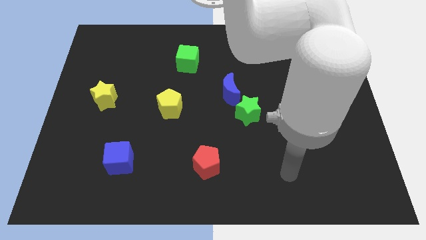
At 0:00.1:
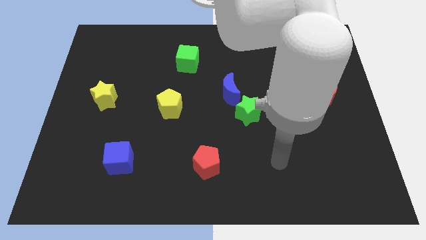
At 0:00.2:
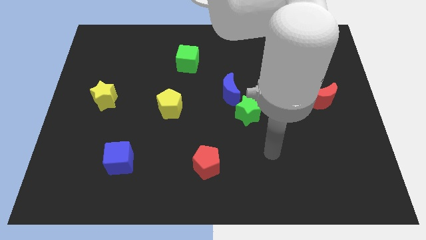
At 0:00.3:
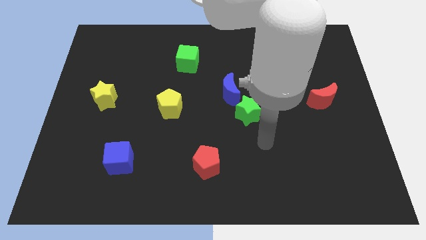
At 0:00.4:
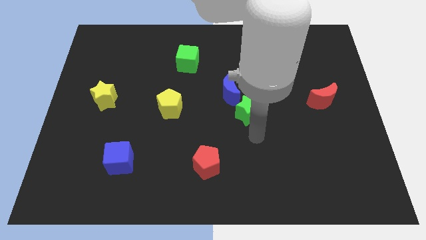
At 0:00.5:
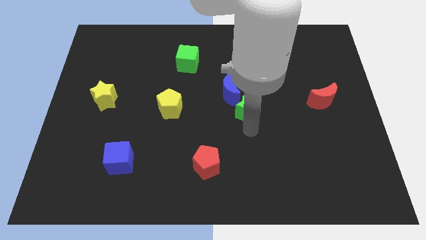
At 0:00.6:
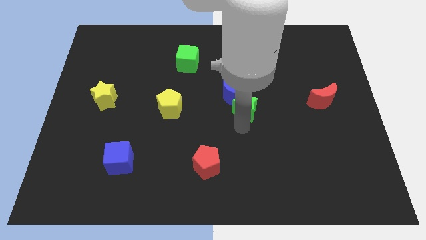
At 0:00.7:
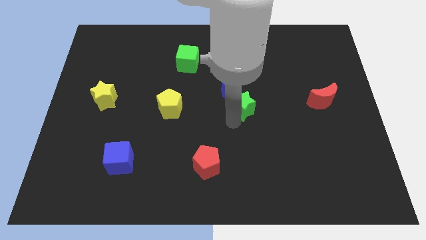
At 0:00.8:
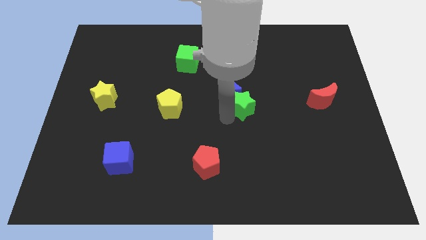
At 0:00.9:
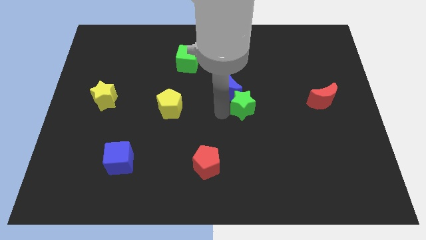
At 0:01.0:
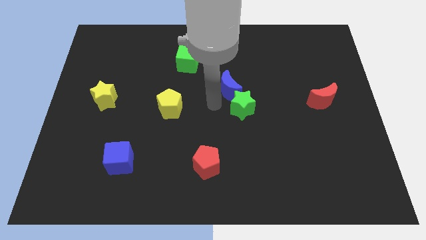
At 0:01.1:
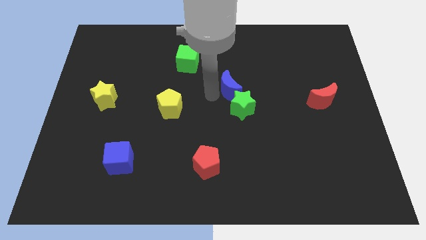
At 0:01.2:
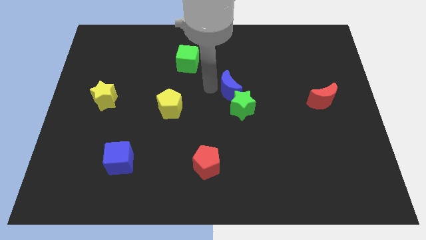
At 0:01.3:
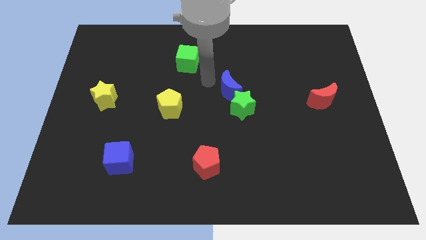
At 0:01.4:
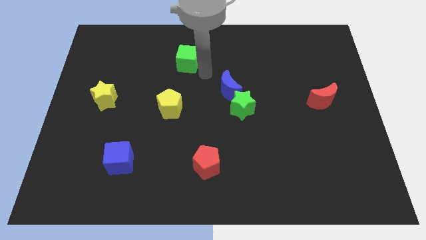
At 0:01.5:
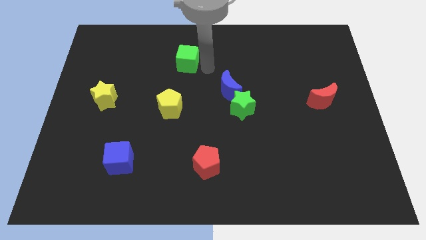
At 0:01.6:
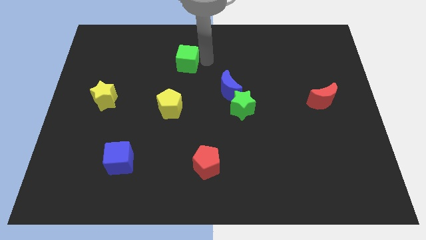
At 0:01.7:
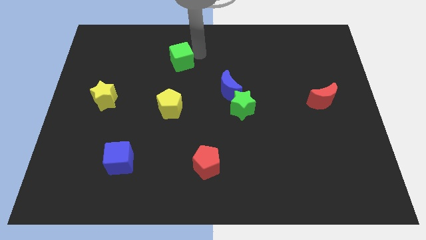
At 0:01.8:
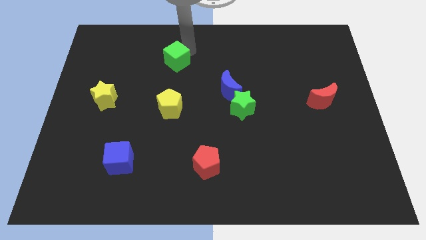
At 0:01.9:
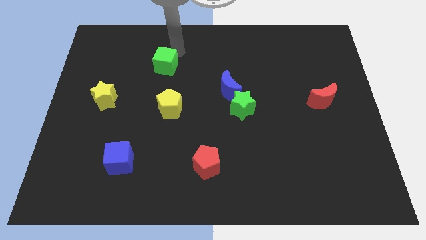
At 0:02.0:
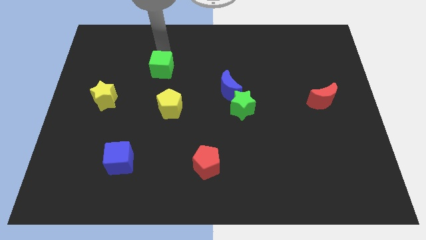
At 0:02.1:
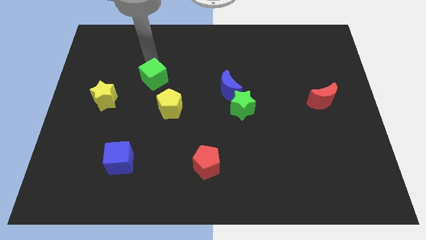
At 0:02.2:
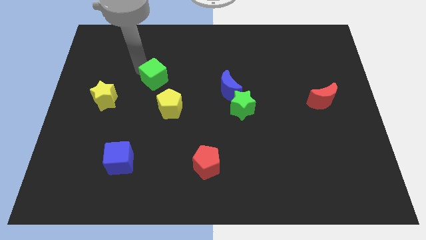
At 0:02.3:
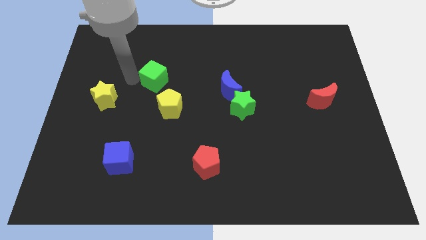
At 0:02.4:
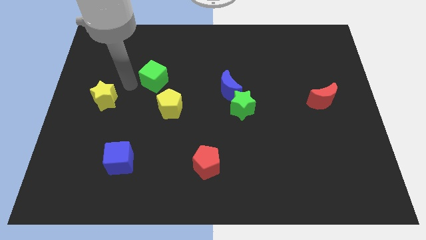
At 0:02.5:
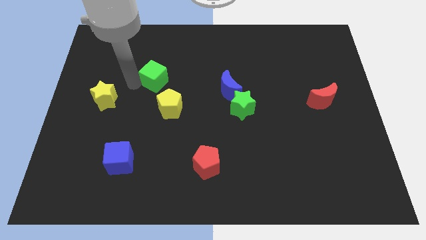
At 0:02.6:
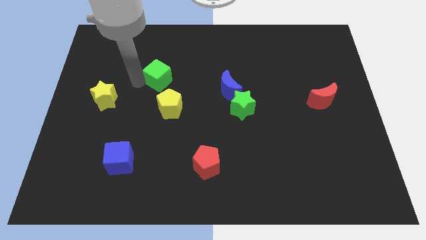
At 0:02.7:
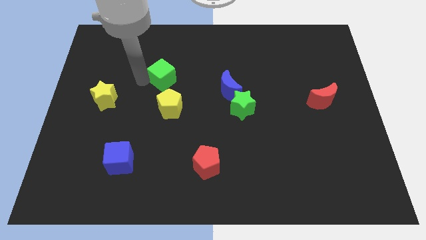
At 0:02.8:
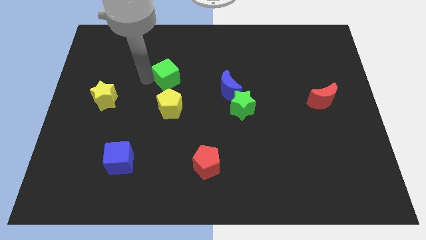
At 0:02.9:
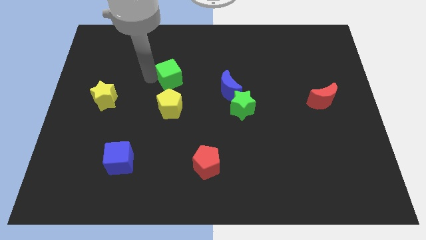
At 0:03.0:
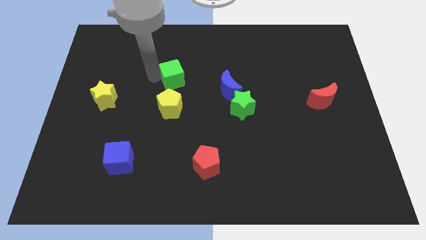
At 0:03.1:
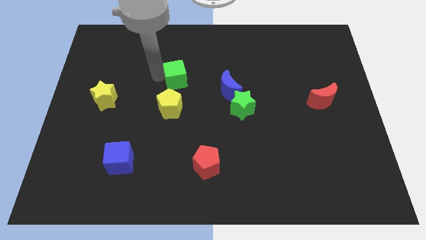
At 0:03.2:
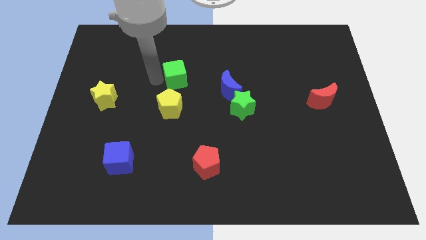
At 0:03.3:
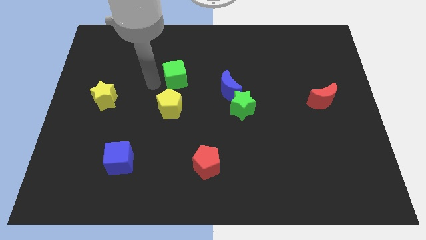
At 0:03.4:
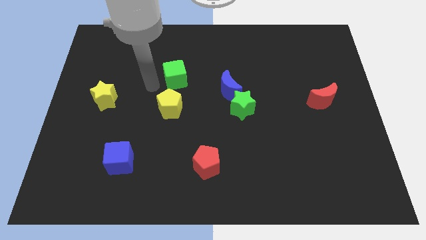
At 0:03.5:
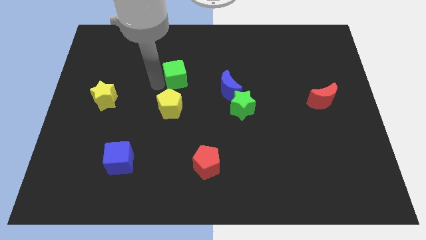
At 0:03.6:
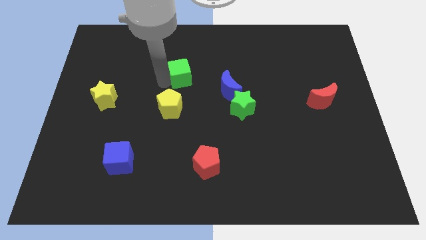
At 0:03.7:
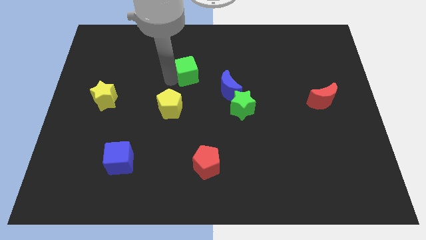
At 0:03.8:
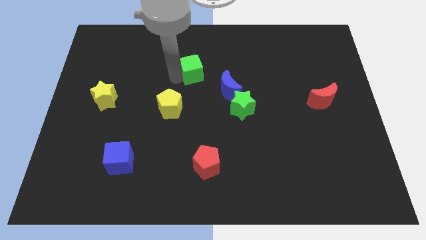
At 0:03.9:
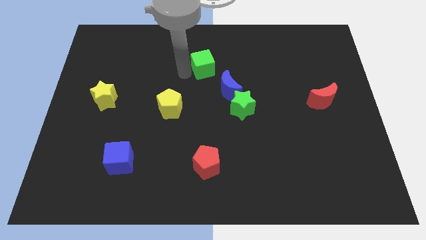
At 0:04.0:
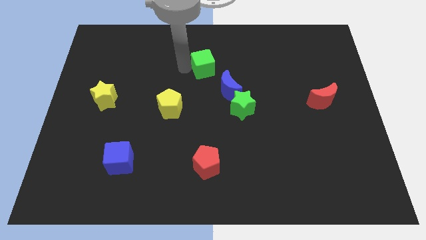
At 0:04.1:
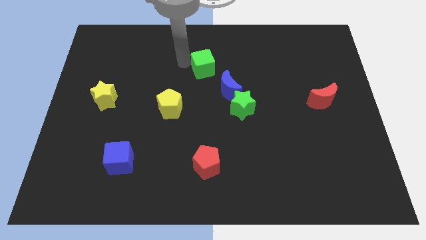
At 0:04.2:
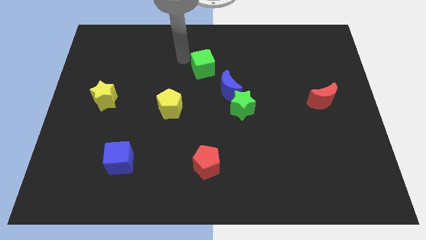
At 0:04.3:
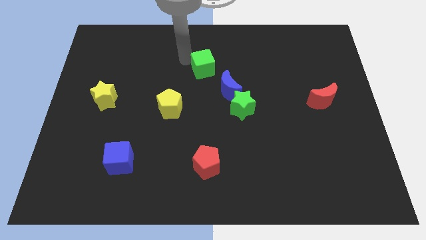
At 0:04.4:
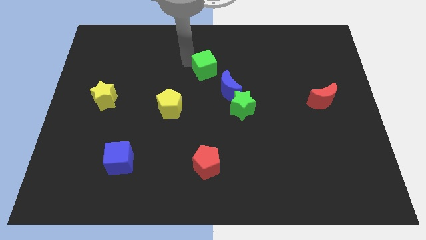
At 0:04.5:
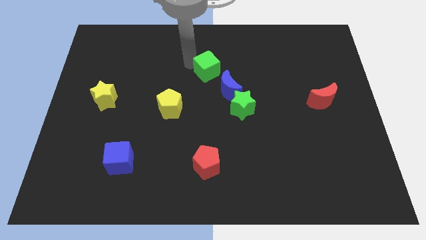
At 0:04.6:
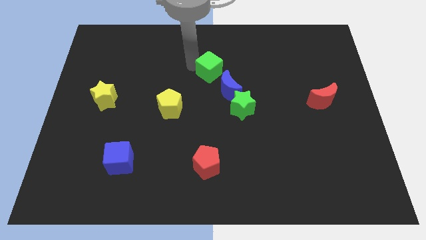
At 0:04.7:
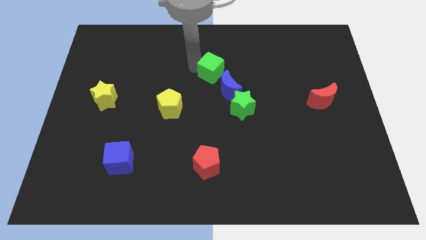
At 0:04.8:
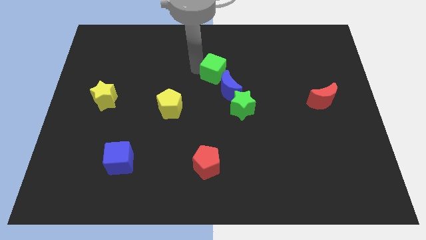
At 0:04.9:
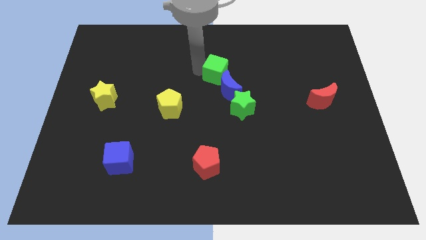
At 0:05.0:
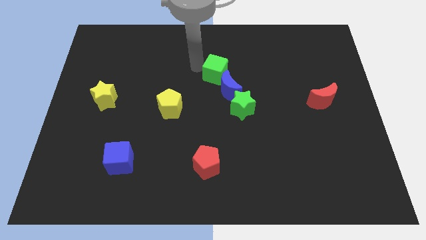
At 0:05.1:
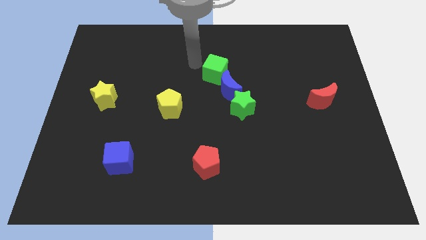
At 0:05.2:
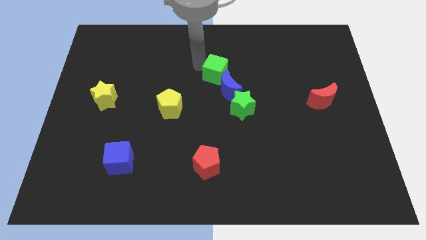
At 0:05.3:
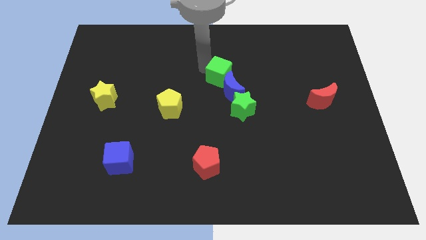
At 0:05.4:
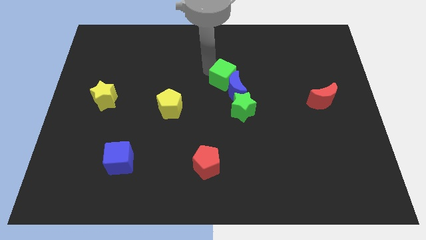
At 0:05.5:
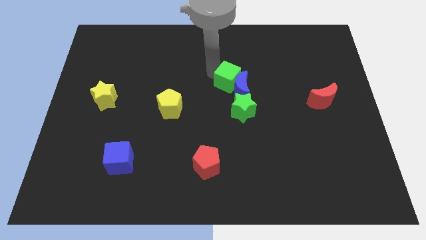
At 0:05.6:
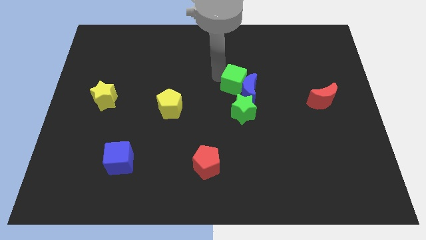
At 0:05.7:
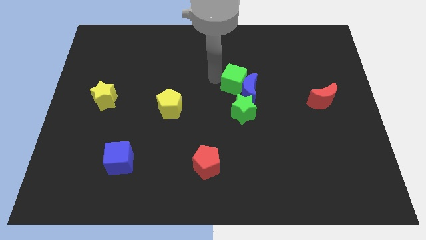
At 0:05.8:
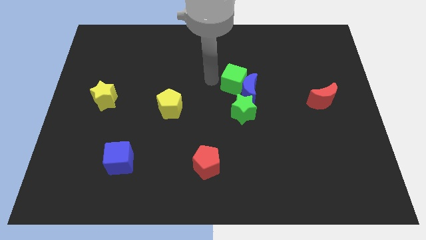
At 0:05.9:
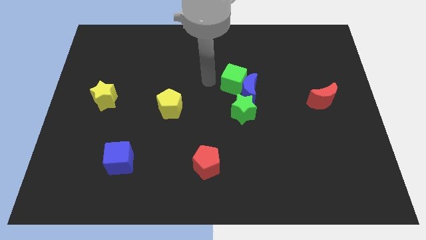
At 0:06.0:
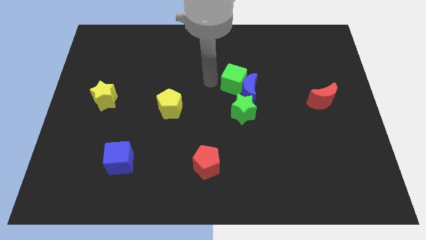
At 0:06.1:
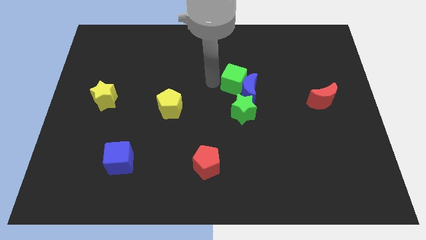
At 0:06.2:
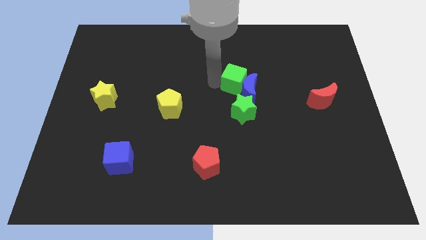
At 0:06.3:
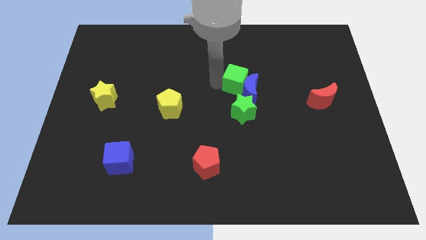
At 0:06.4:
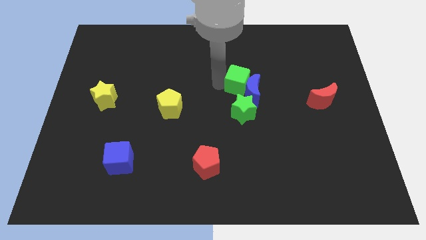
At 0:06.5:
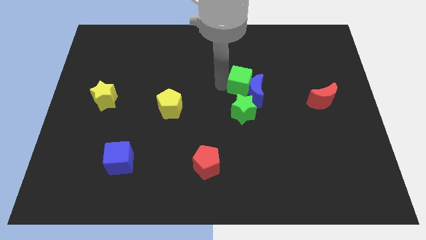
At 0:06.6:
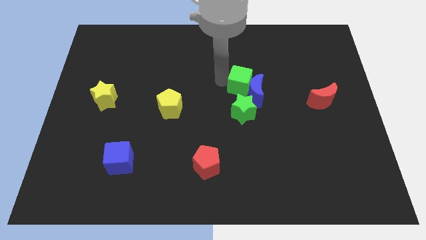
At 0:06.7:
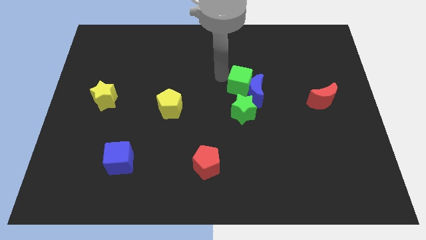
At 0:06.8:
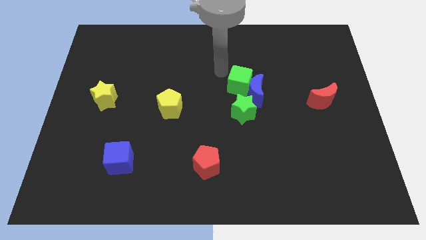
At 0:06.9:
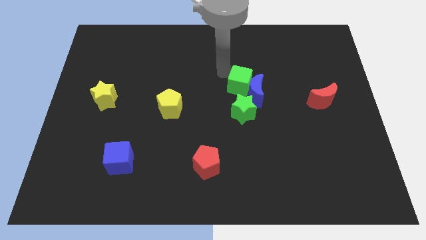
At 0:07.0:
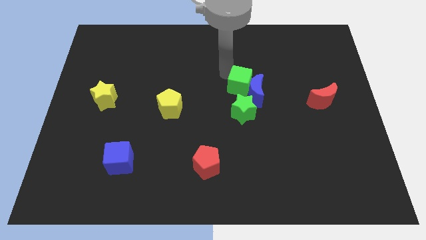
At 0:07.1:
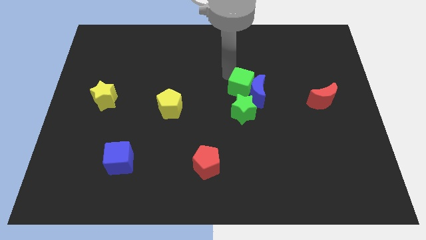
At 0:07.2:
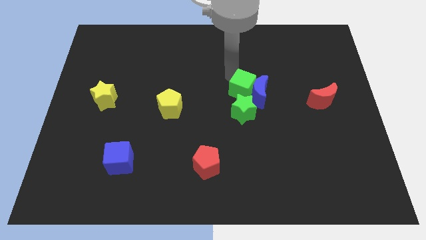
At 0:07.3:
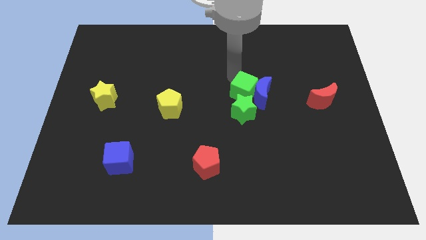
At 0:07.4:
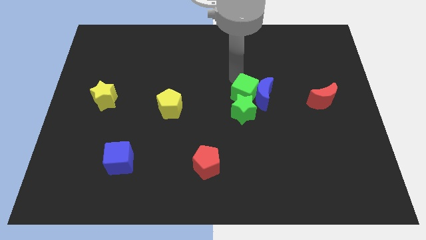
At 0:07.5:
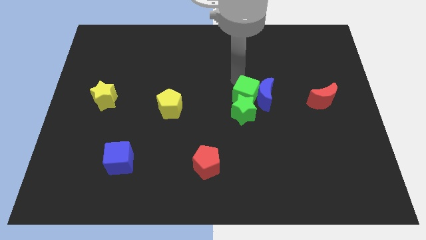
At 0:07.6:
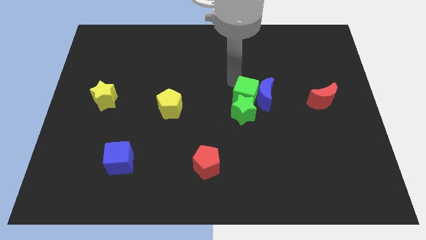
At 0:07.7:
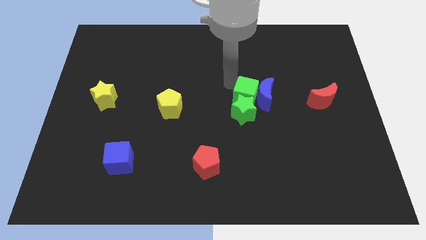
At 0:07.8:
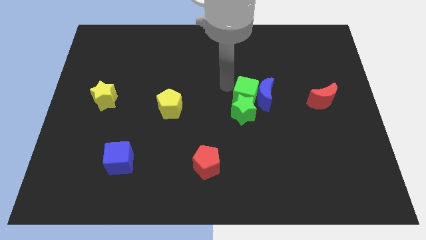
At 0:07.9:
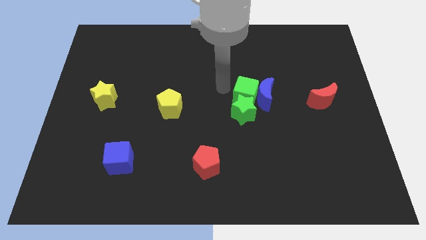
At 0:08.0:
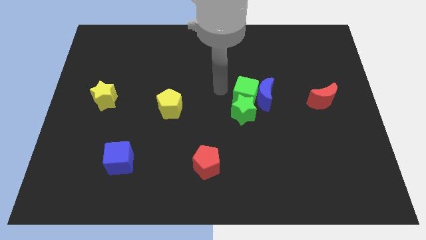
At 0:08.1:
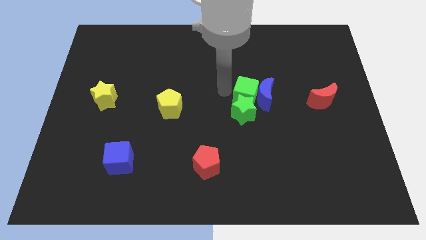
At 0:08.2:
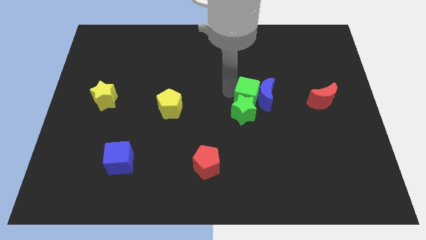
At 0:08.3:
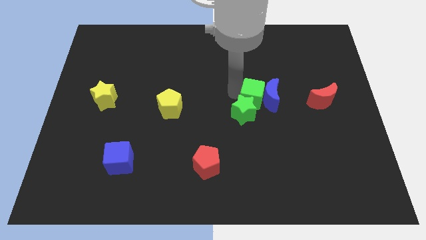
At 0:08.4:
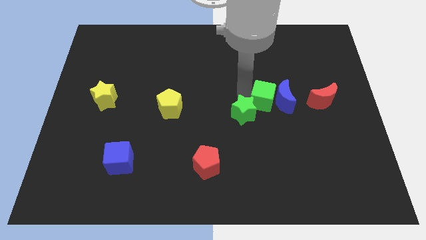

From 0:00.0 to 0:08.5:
move the green cube down and right
